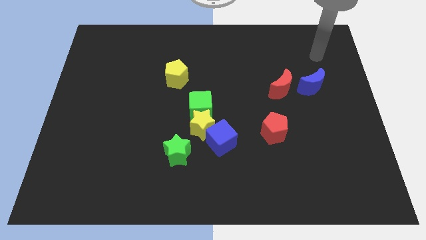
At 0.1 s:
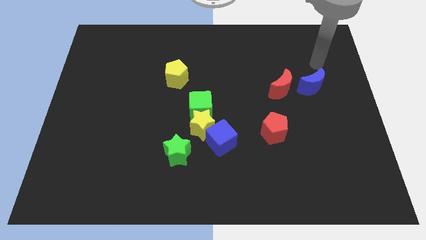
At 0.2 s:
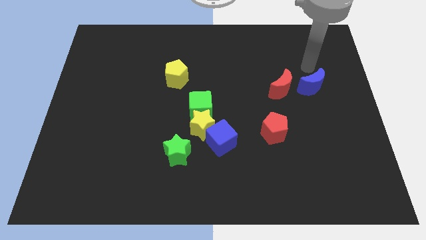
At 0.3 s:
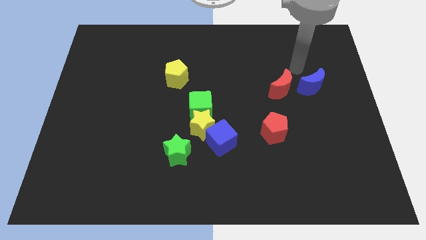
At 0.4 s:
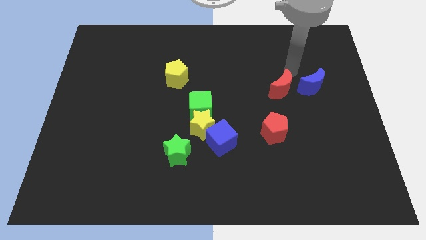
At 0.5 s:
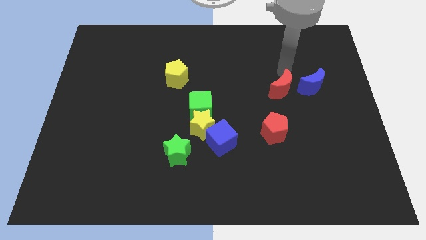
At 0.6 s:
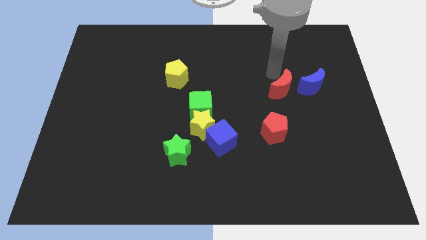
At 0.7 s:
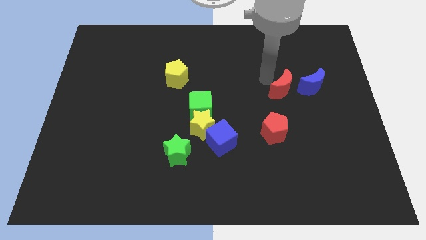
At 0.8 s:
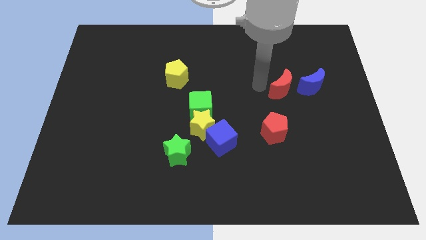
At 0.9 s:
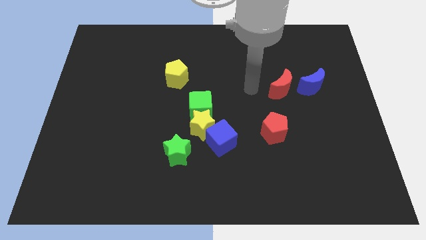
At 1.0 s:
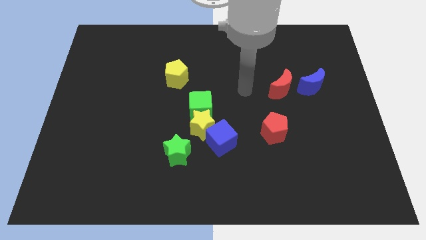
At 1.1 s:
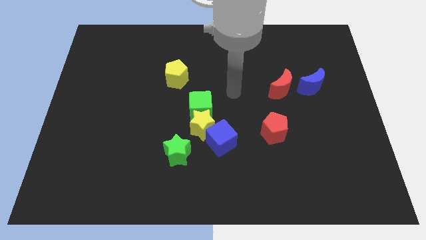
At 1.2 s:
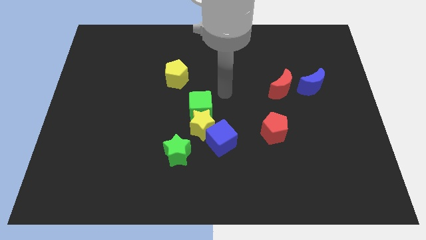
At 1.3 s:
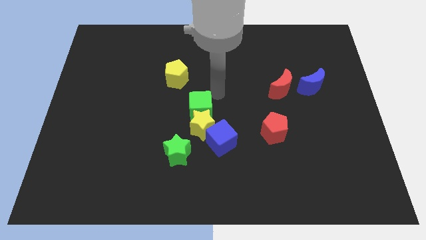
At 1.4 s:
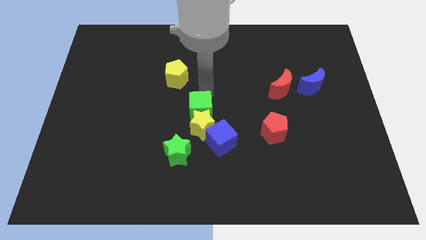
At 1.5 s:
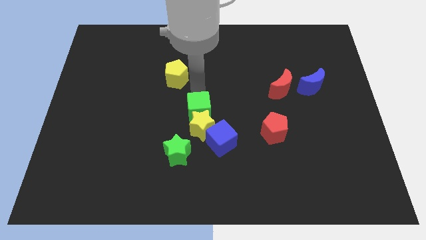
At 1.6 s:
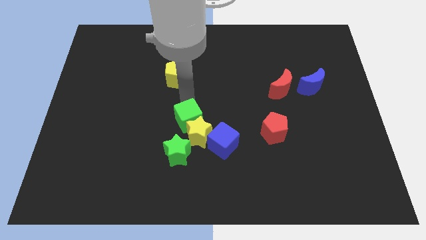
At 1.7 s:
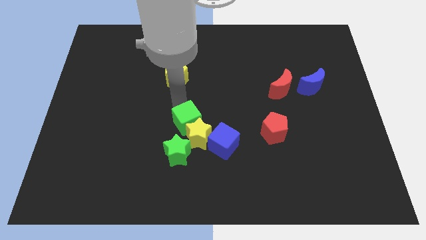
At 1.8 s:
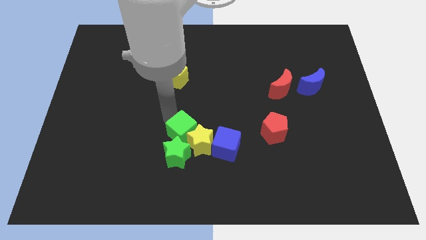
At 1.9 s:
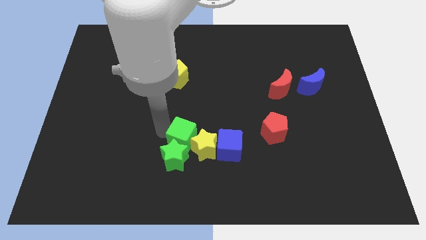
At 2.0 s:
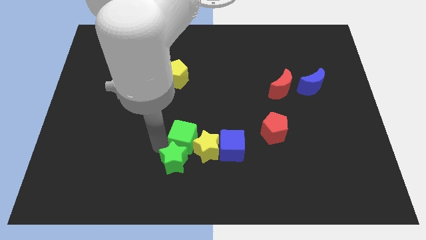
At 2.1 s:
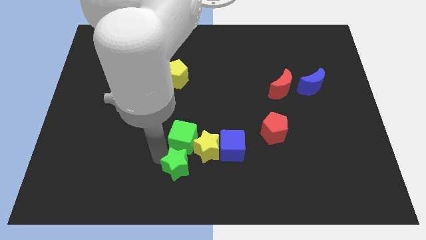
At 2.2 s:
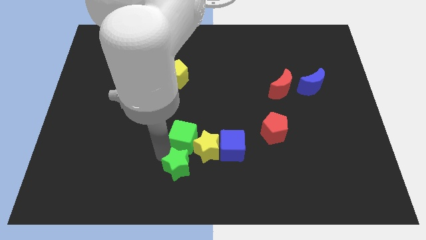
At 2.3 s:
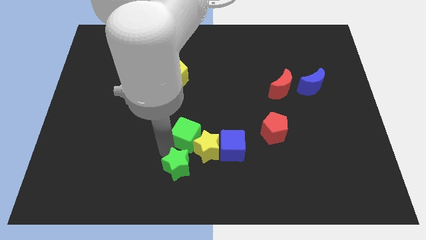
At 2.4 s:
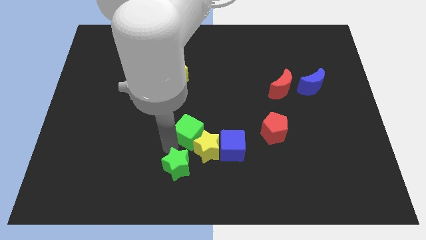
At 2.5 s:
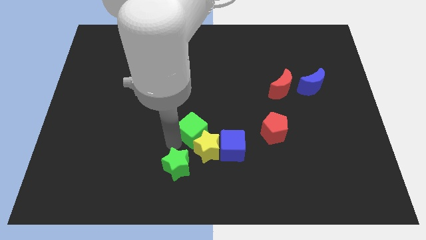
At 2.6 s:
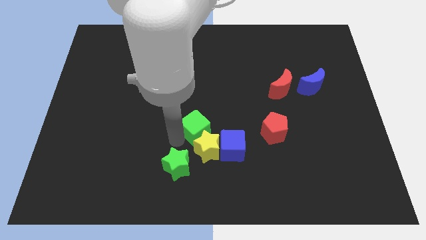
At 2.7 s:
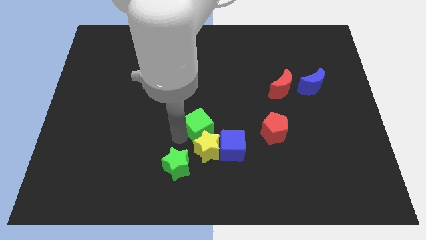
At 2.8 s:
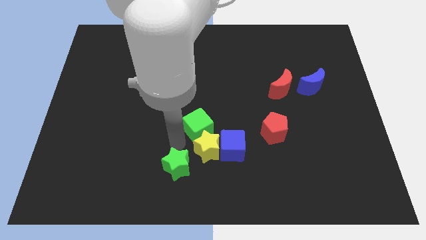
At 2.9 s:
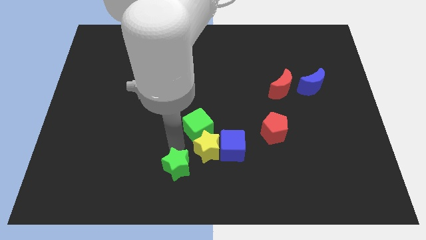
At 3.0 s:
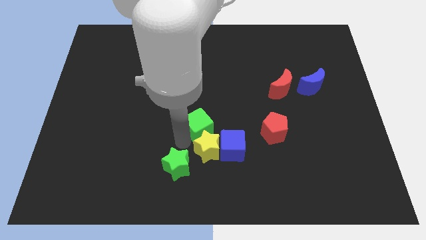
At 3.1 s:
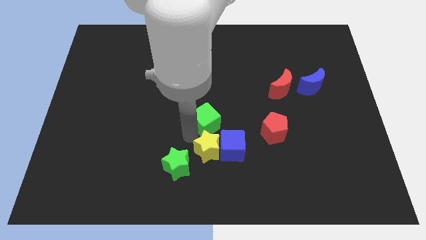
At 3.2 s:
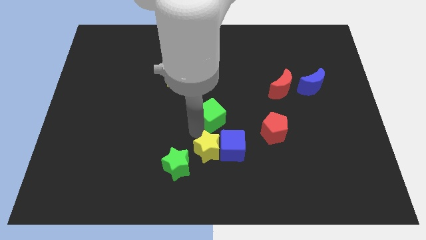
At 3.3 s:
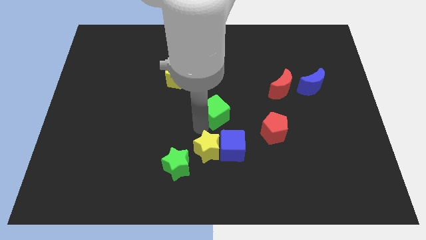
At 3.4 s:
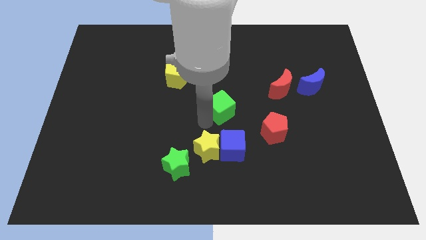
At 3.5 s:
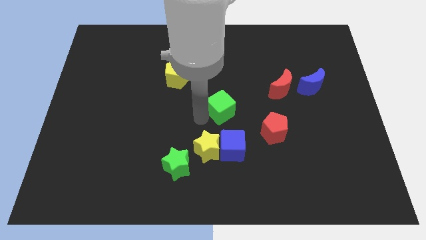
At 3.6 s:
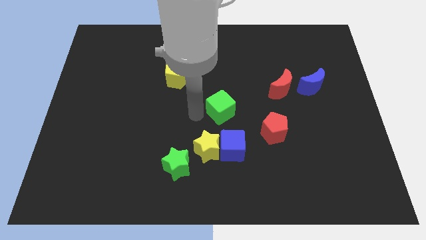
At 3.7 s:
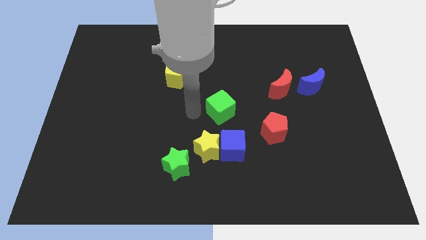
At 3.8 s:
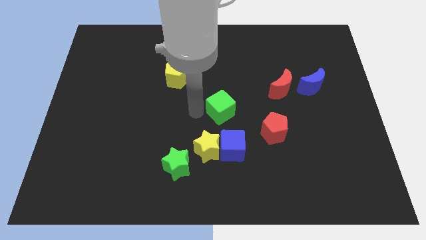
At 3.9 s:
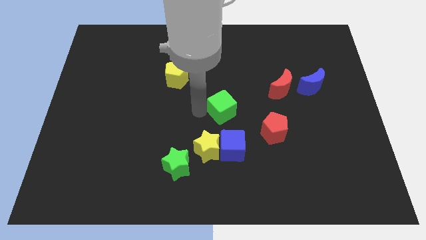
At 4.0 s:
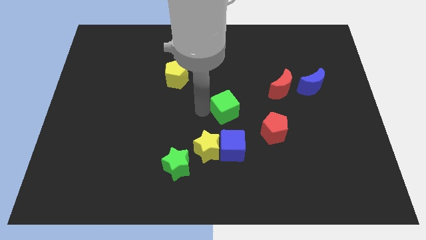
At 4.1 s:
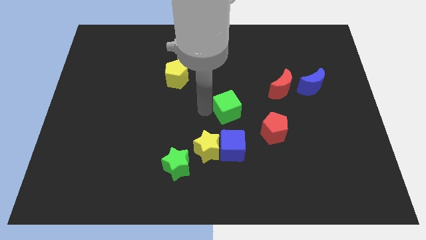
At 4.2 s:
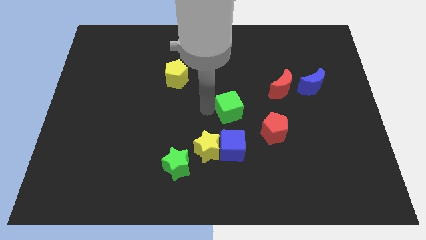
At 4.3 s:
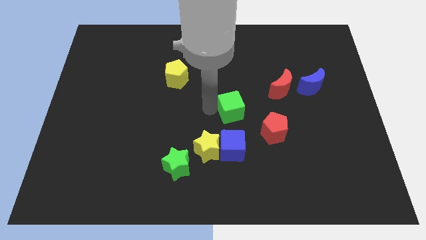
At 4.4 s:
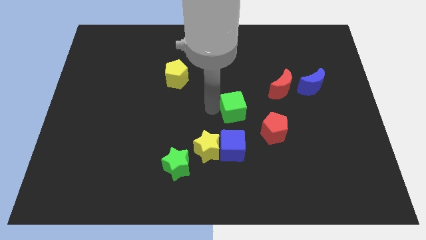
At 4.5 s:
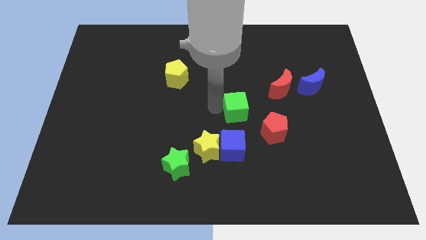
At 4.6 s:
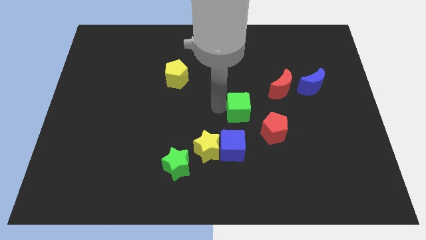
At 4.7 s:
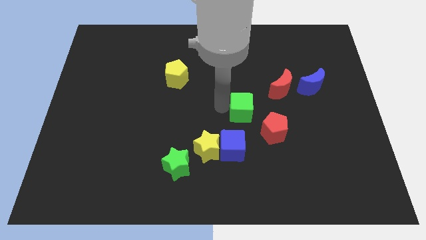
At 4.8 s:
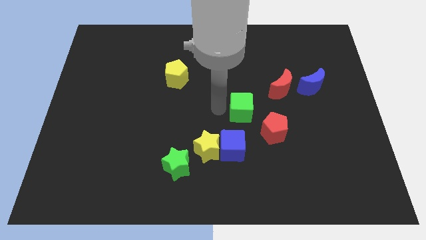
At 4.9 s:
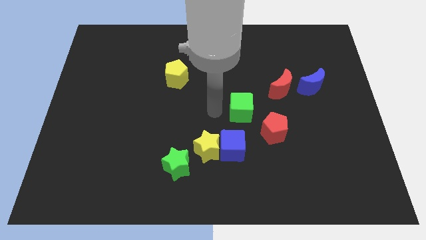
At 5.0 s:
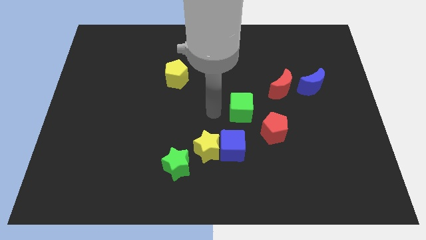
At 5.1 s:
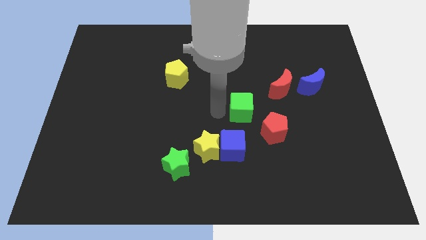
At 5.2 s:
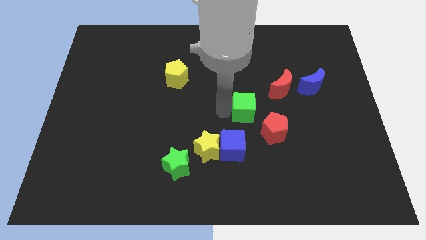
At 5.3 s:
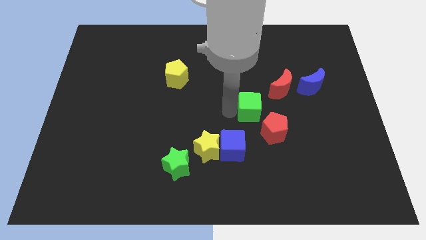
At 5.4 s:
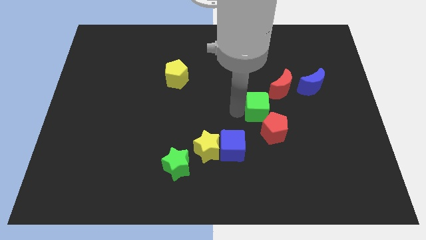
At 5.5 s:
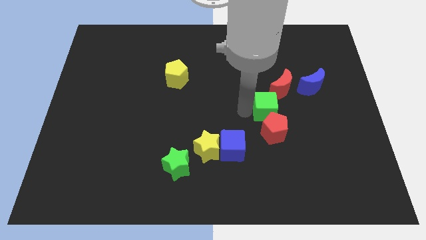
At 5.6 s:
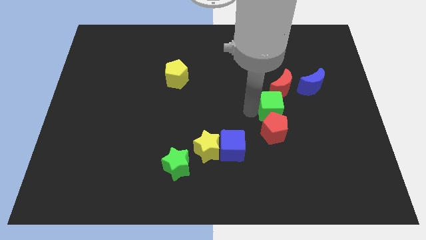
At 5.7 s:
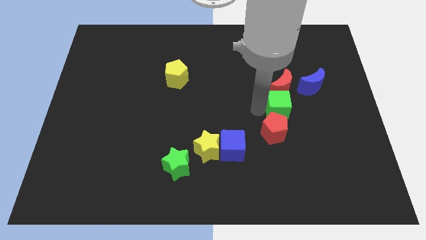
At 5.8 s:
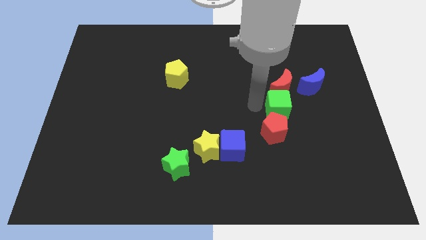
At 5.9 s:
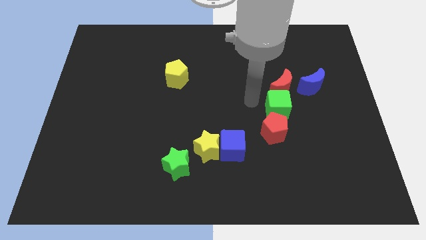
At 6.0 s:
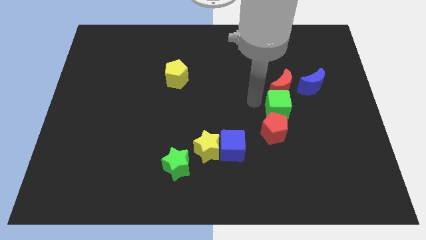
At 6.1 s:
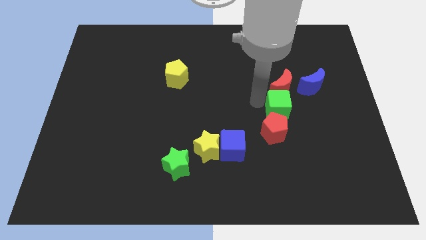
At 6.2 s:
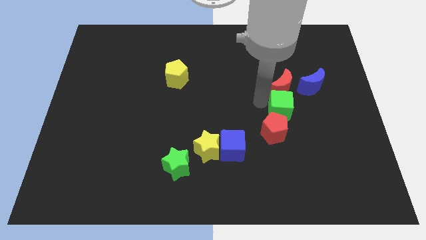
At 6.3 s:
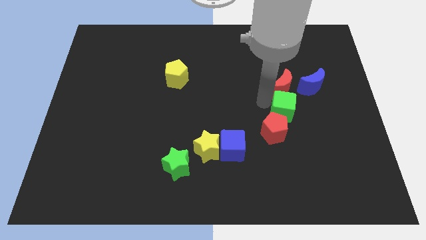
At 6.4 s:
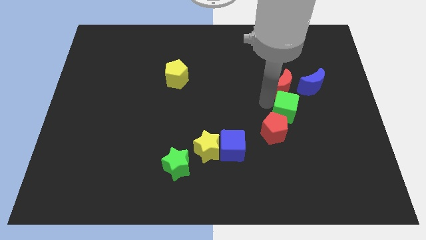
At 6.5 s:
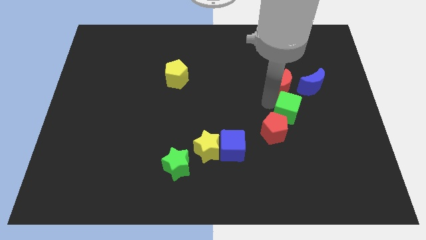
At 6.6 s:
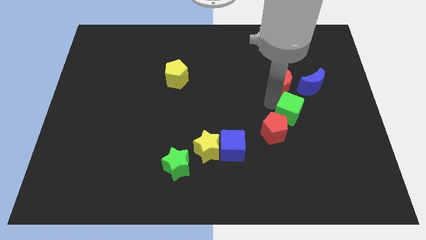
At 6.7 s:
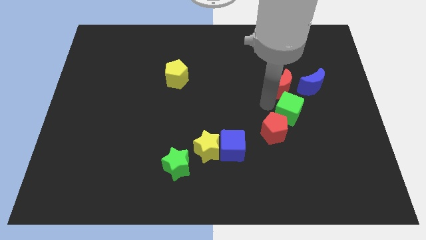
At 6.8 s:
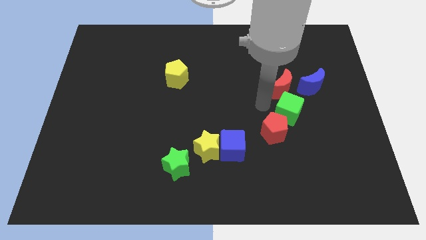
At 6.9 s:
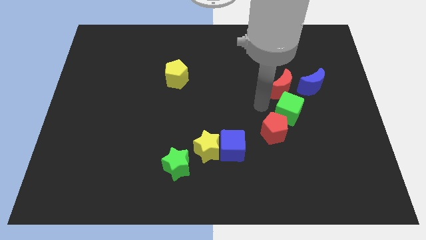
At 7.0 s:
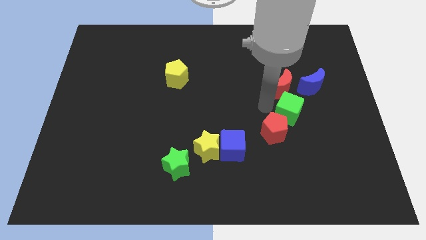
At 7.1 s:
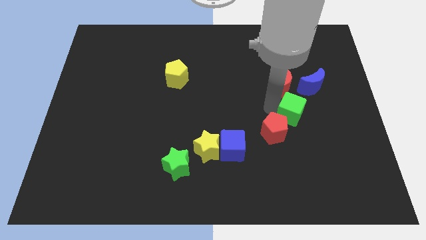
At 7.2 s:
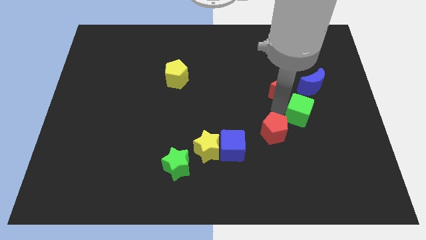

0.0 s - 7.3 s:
move the green cube to the bottom side of the blue moon
